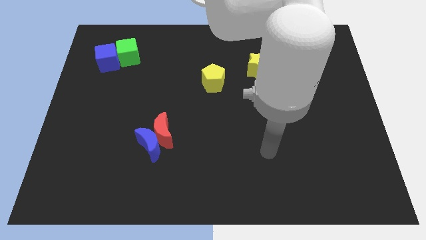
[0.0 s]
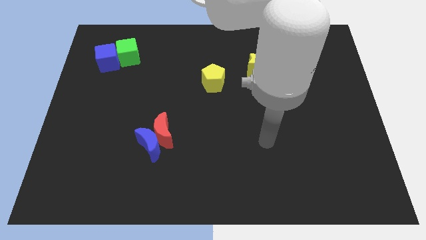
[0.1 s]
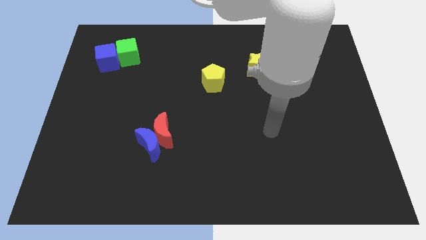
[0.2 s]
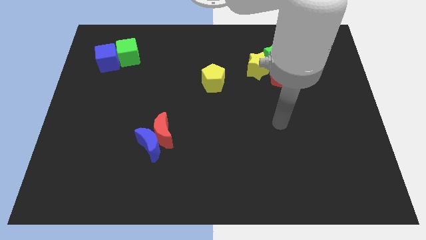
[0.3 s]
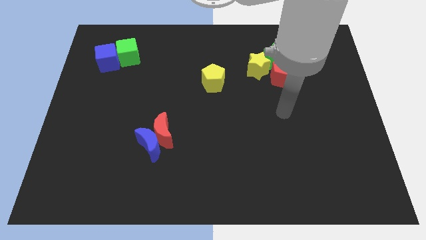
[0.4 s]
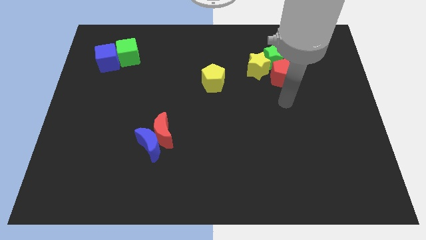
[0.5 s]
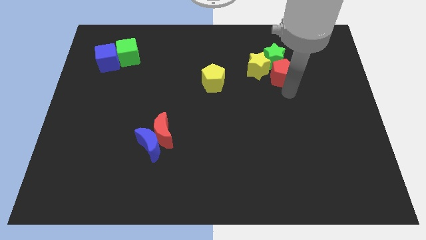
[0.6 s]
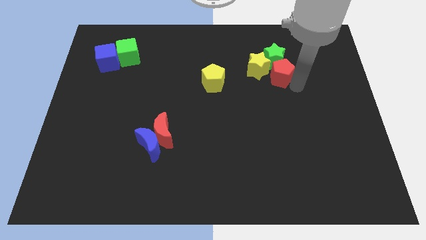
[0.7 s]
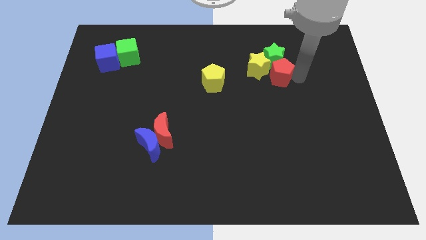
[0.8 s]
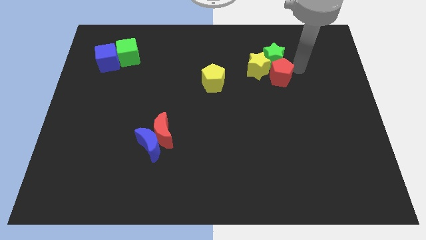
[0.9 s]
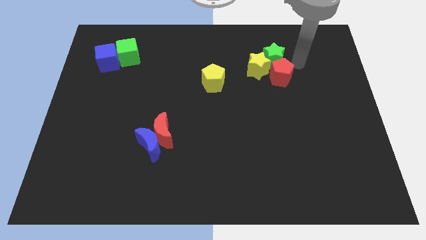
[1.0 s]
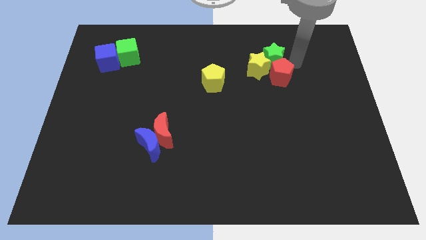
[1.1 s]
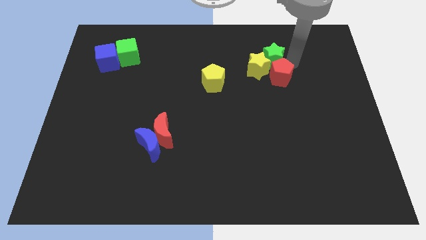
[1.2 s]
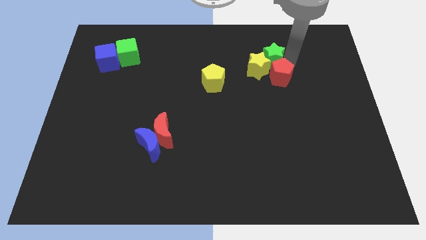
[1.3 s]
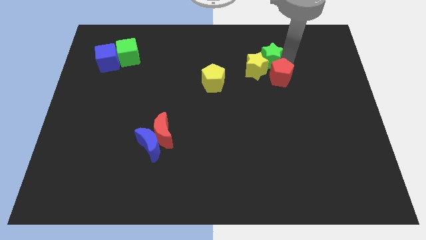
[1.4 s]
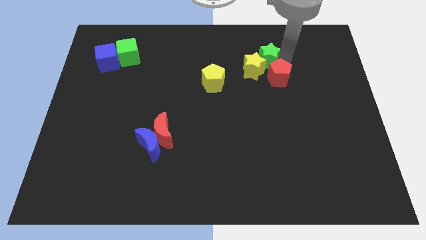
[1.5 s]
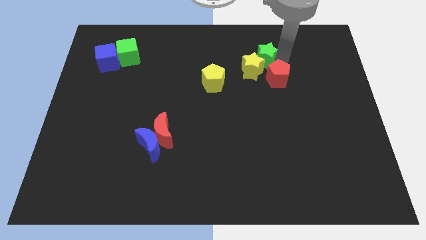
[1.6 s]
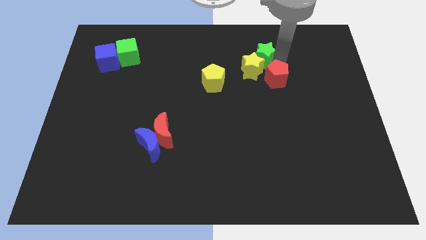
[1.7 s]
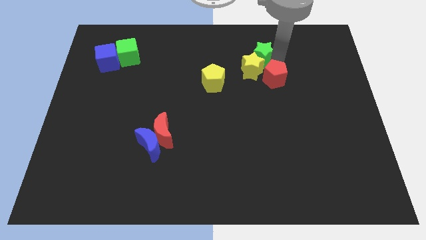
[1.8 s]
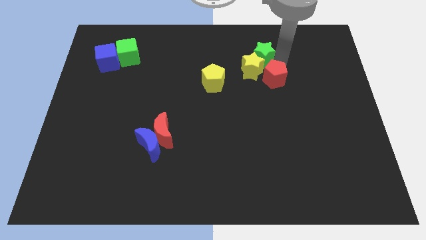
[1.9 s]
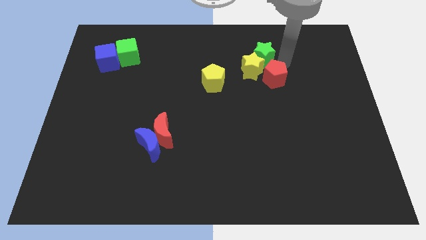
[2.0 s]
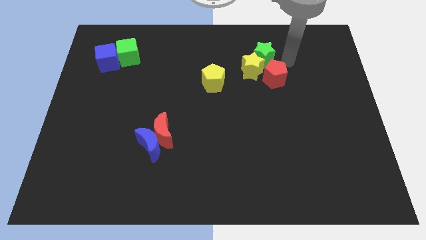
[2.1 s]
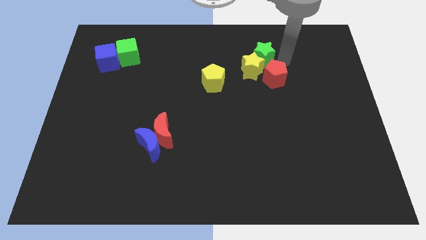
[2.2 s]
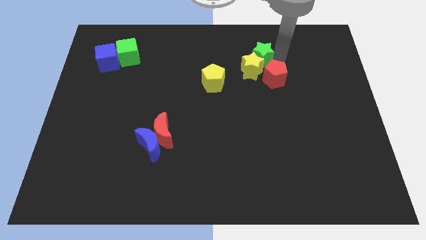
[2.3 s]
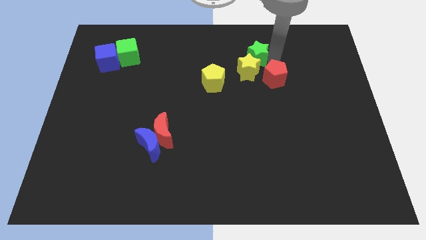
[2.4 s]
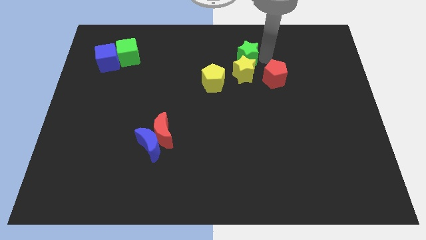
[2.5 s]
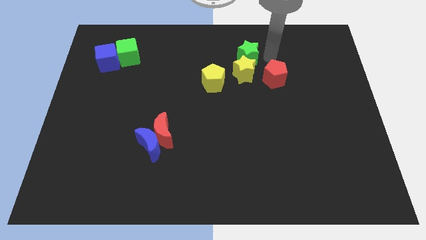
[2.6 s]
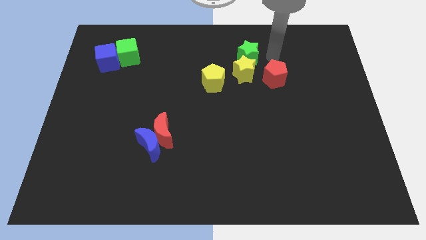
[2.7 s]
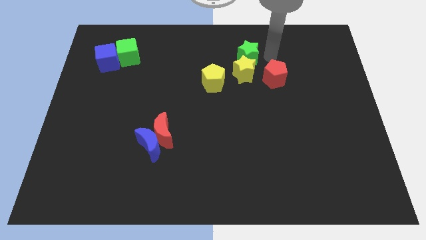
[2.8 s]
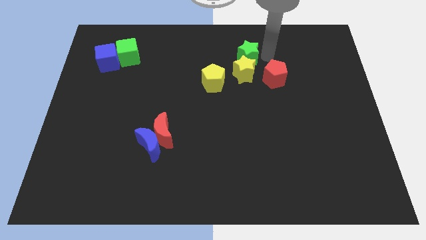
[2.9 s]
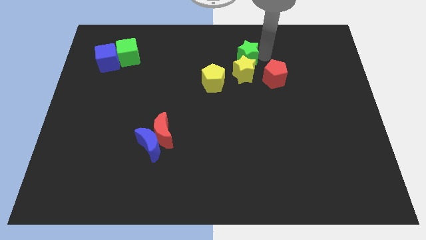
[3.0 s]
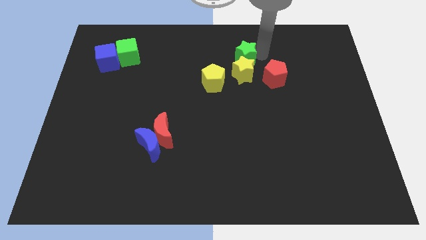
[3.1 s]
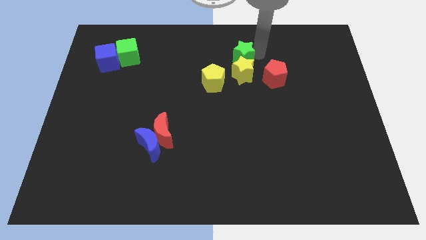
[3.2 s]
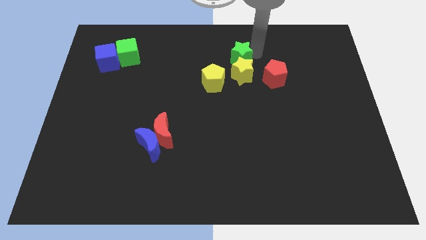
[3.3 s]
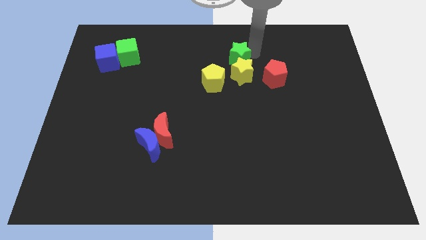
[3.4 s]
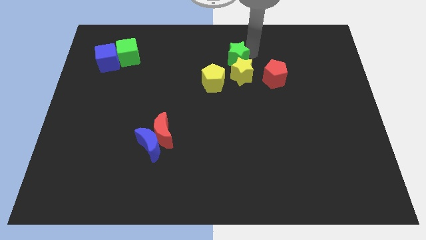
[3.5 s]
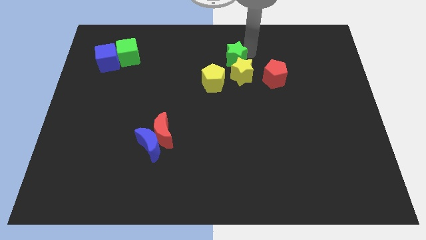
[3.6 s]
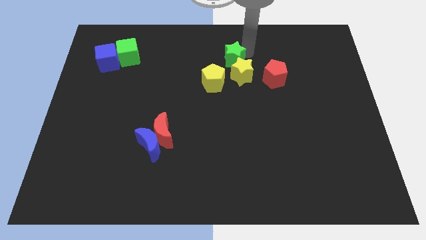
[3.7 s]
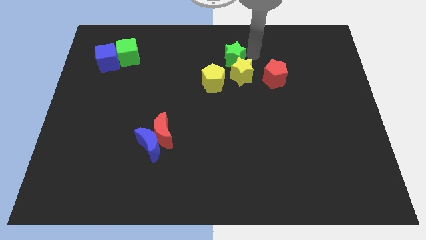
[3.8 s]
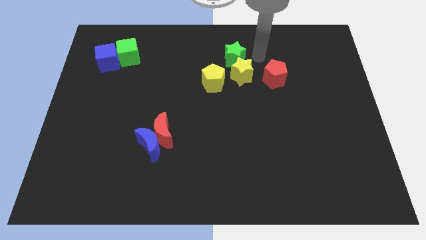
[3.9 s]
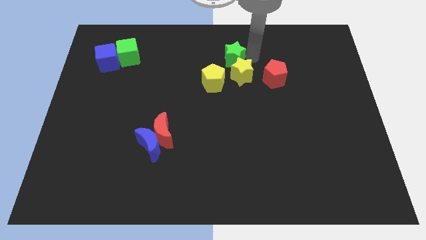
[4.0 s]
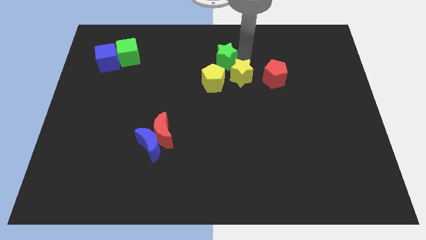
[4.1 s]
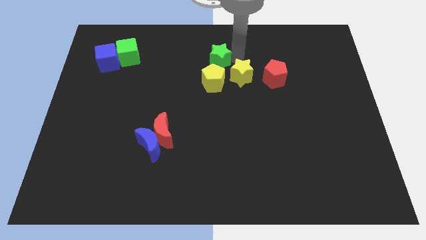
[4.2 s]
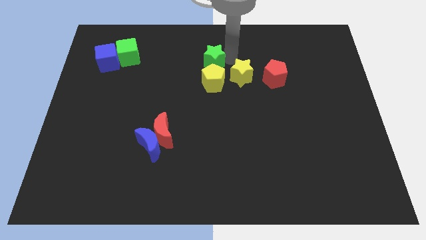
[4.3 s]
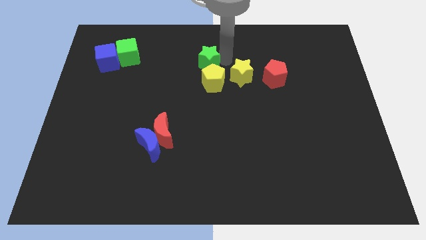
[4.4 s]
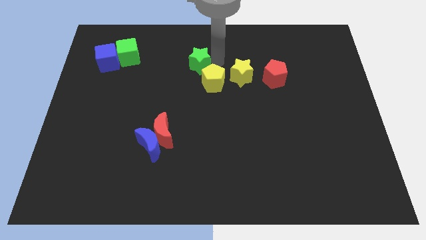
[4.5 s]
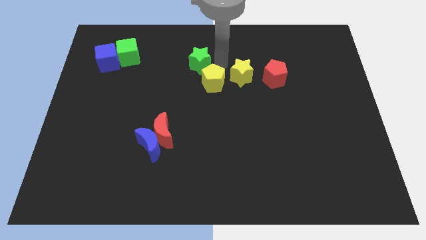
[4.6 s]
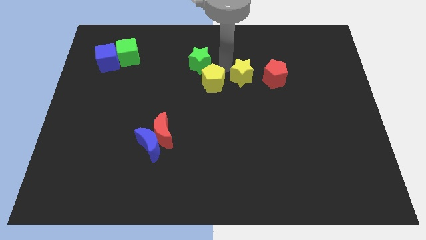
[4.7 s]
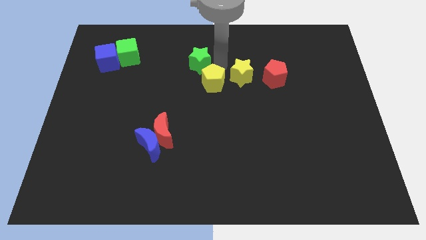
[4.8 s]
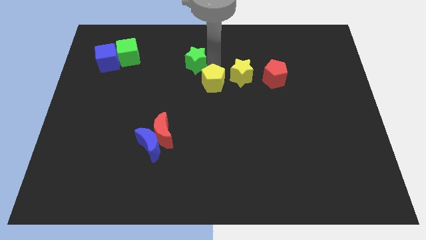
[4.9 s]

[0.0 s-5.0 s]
slide the green star to the left

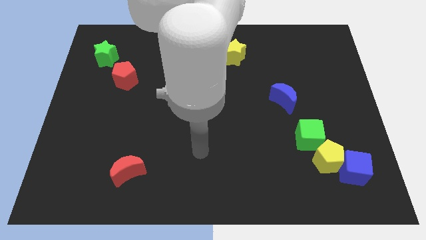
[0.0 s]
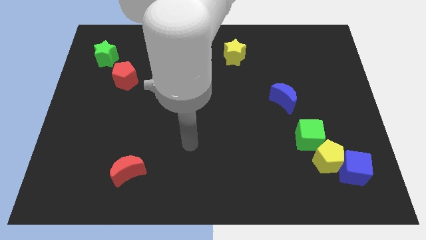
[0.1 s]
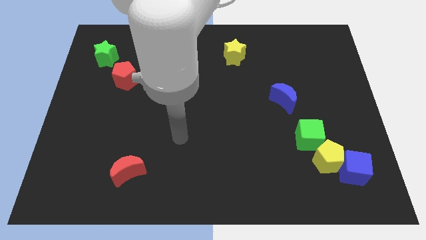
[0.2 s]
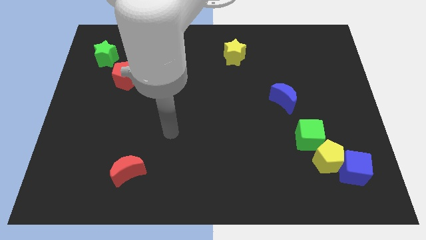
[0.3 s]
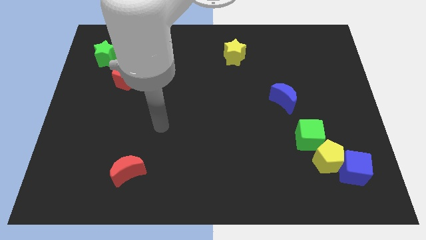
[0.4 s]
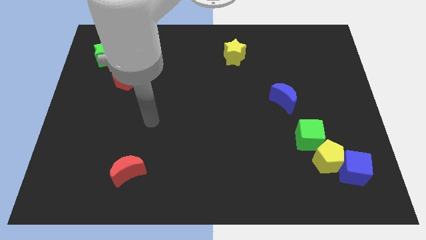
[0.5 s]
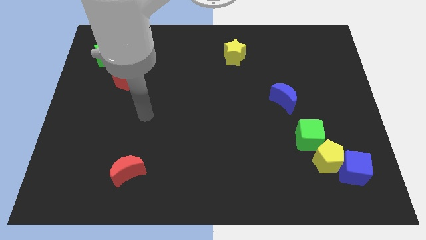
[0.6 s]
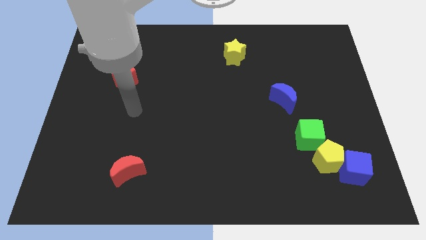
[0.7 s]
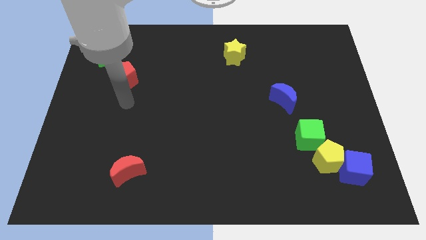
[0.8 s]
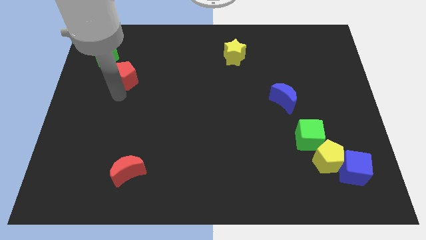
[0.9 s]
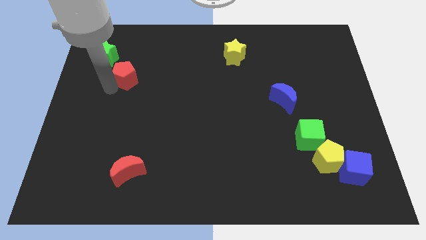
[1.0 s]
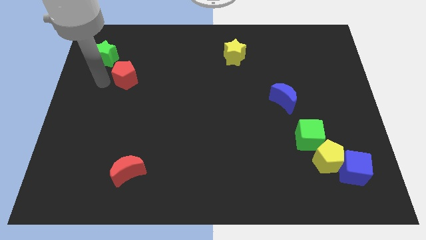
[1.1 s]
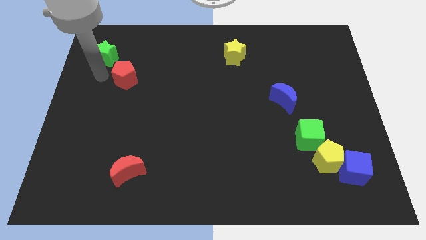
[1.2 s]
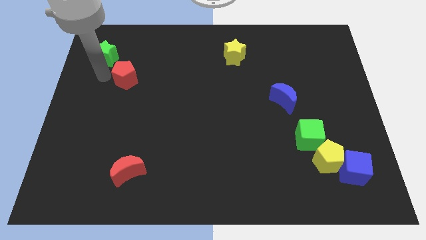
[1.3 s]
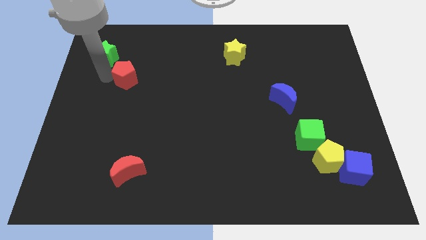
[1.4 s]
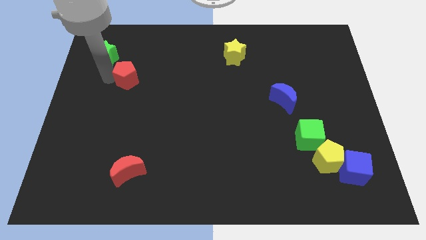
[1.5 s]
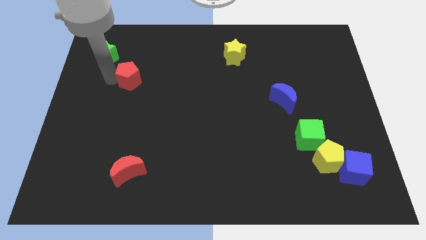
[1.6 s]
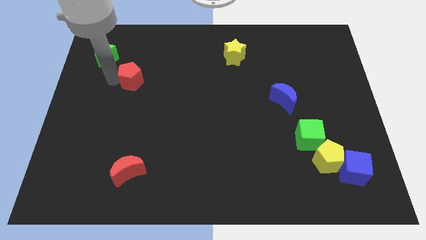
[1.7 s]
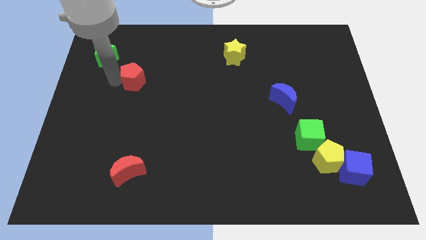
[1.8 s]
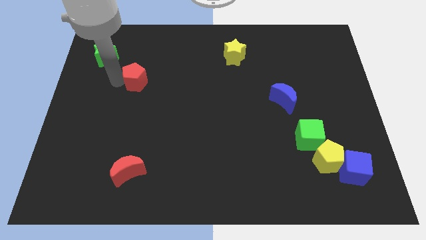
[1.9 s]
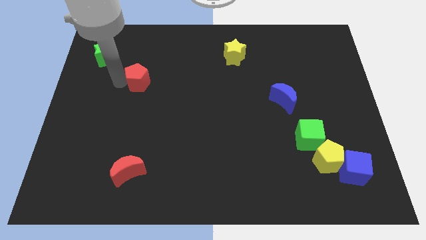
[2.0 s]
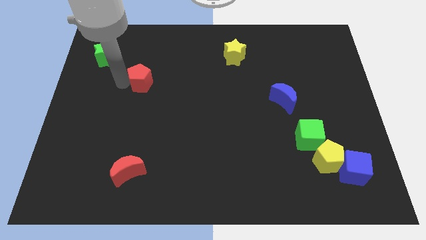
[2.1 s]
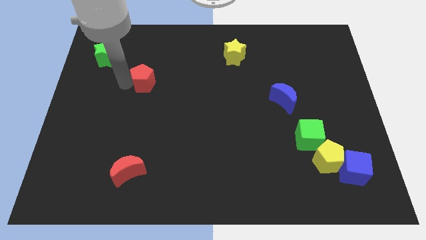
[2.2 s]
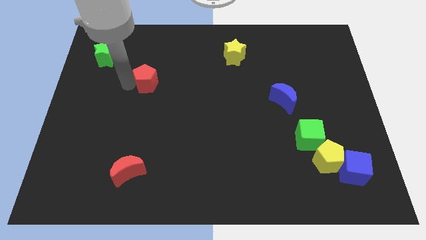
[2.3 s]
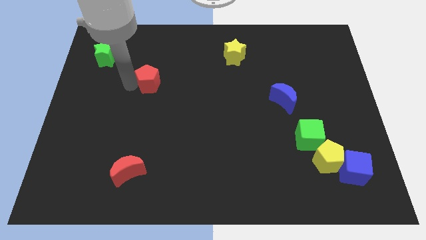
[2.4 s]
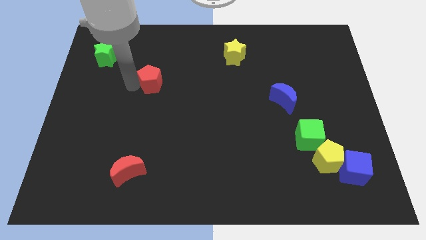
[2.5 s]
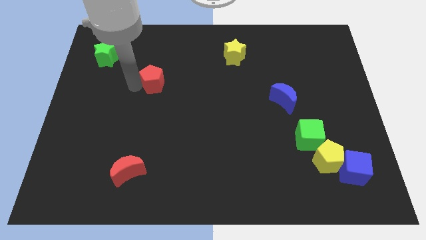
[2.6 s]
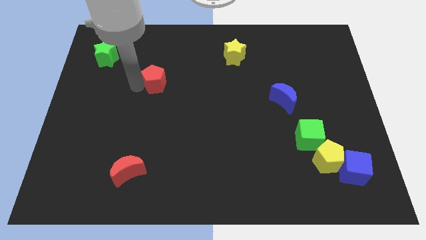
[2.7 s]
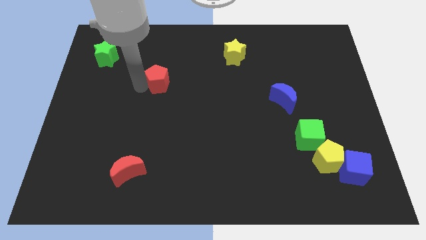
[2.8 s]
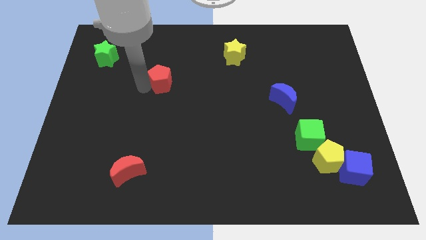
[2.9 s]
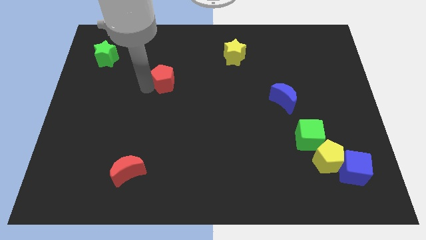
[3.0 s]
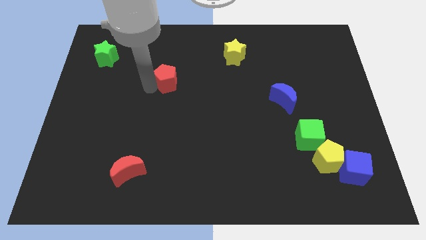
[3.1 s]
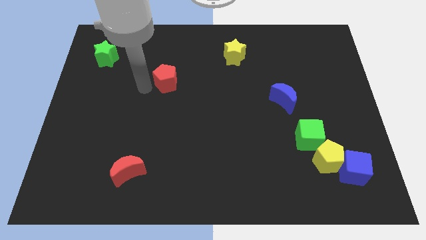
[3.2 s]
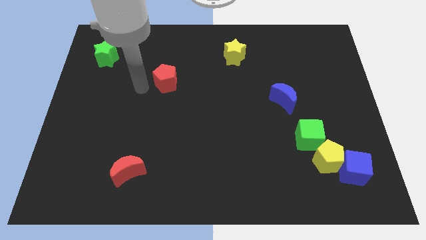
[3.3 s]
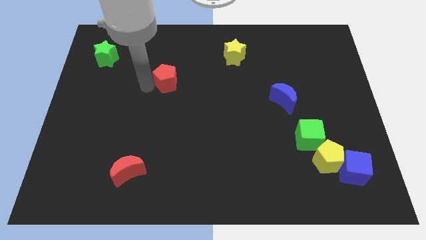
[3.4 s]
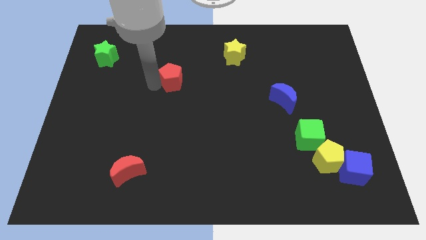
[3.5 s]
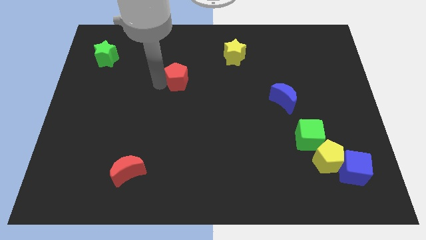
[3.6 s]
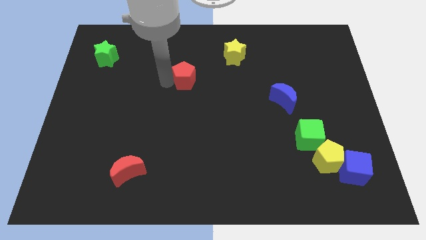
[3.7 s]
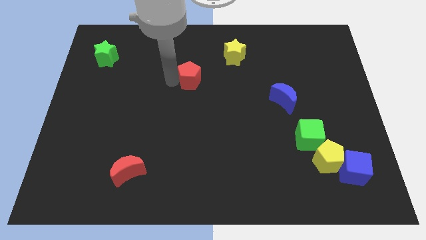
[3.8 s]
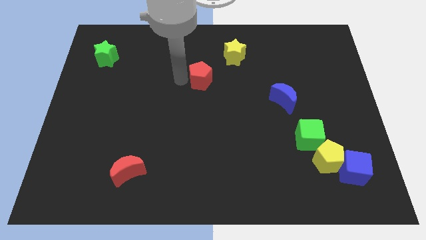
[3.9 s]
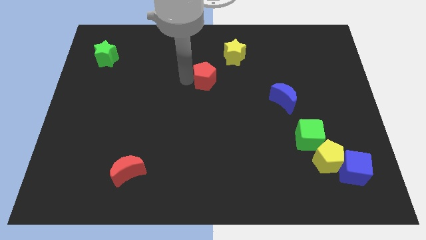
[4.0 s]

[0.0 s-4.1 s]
slide the red pentagon to the right
